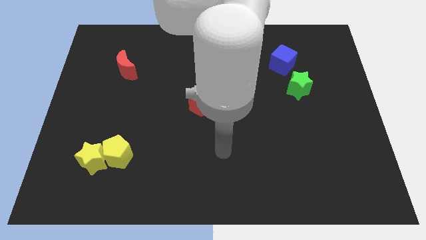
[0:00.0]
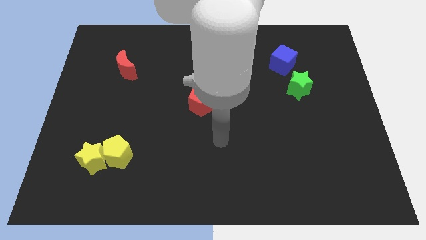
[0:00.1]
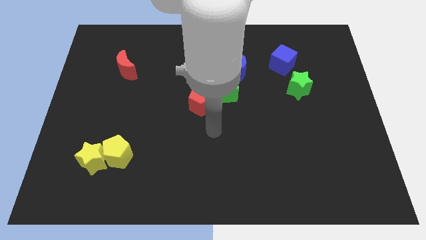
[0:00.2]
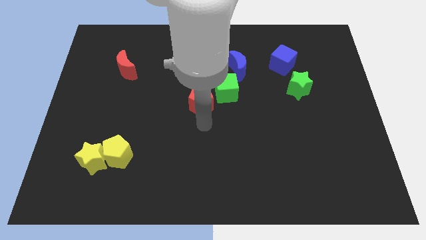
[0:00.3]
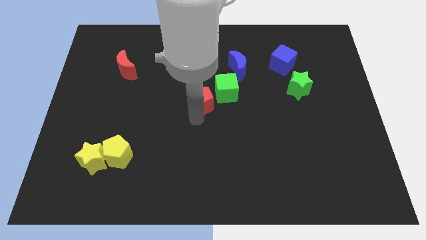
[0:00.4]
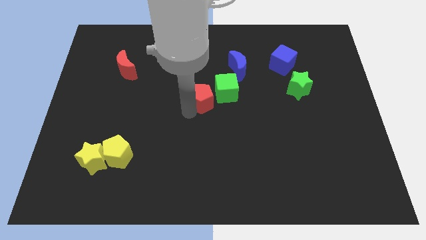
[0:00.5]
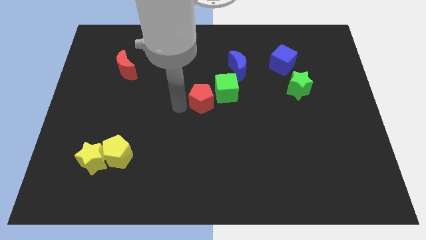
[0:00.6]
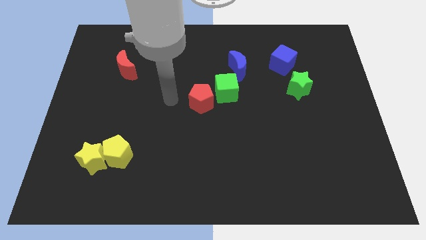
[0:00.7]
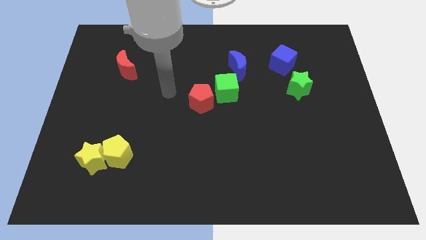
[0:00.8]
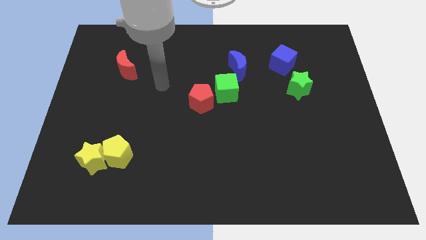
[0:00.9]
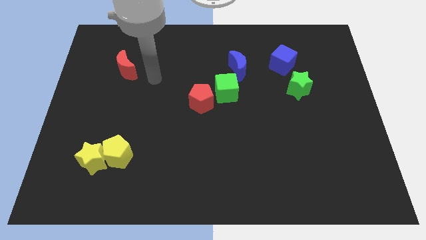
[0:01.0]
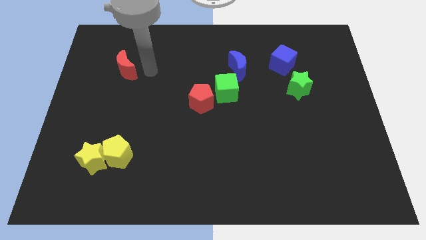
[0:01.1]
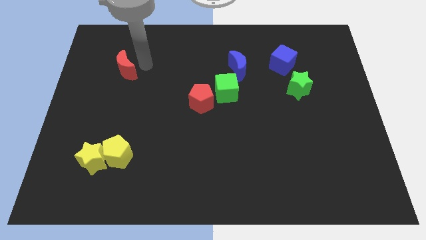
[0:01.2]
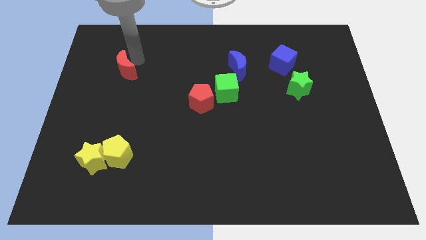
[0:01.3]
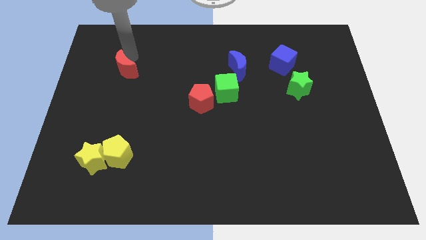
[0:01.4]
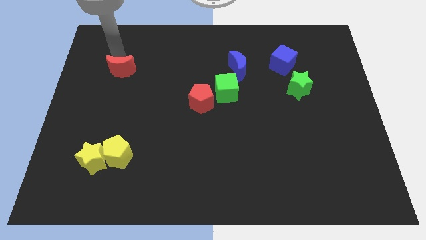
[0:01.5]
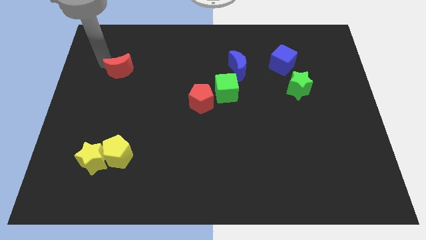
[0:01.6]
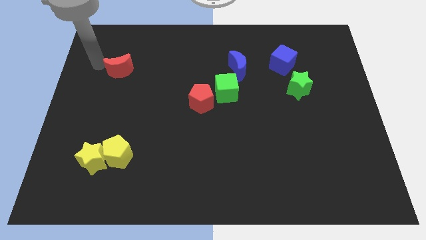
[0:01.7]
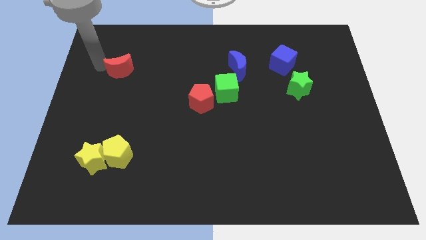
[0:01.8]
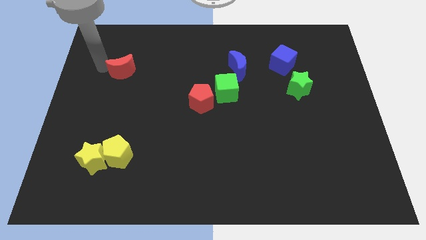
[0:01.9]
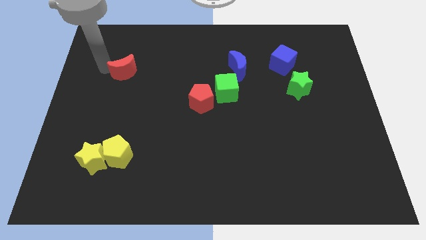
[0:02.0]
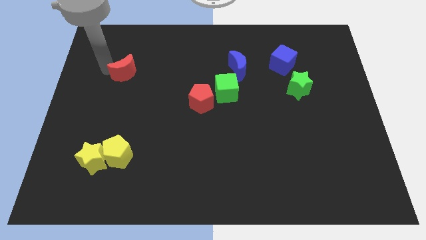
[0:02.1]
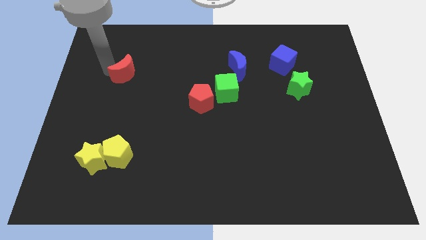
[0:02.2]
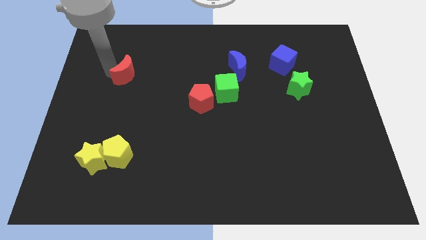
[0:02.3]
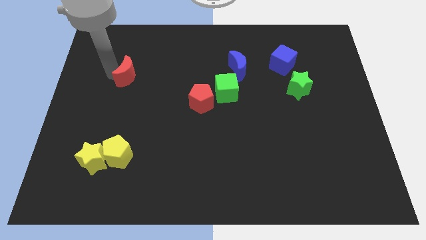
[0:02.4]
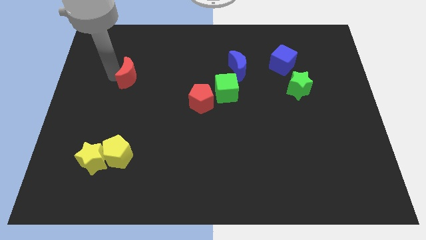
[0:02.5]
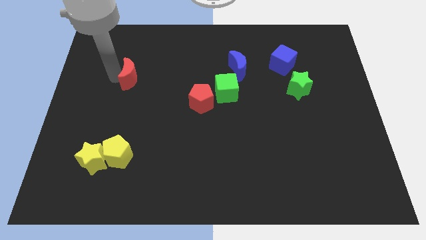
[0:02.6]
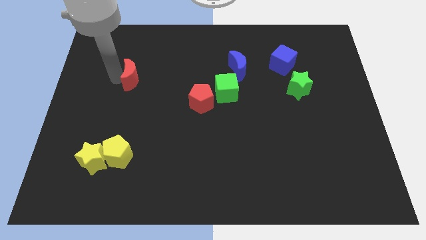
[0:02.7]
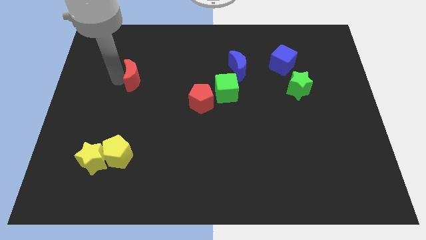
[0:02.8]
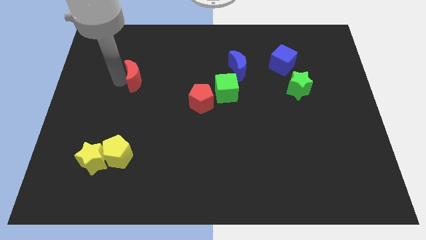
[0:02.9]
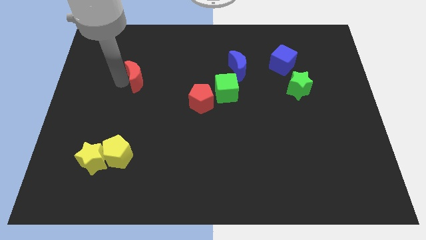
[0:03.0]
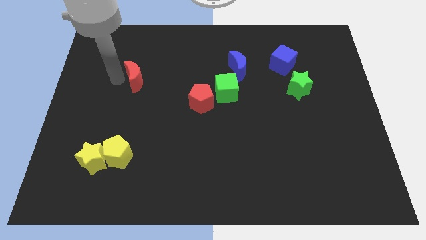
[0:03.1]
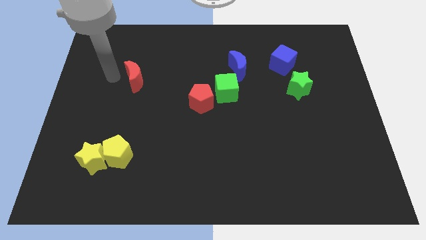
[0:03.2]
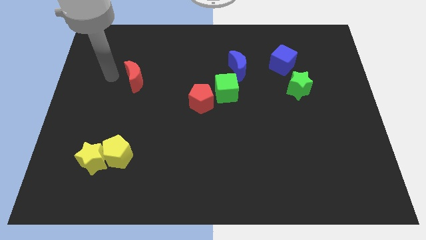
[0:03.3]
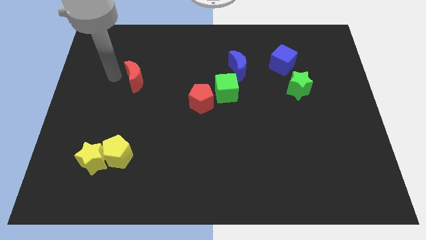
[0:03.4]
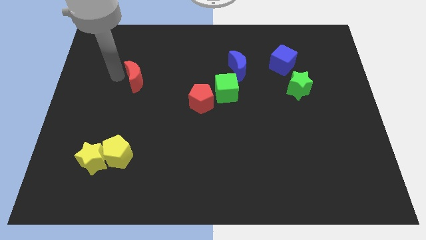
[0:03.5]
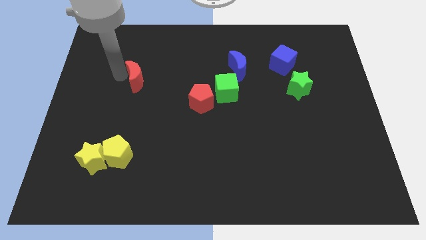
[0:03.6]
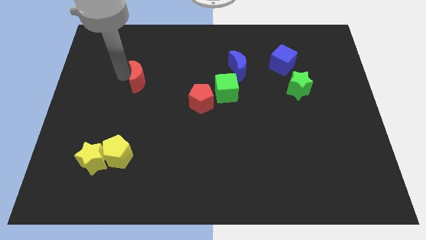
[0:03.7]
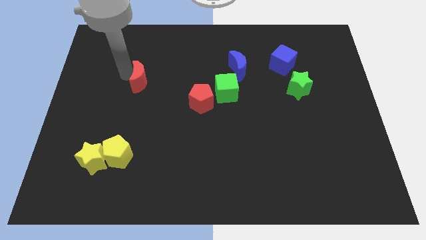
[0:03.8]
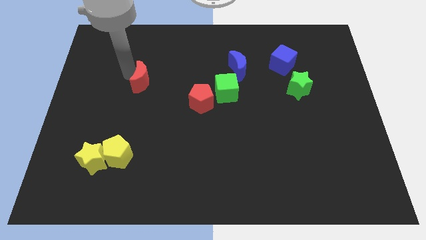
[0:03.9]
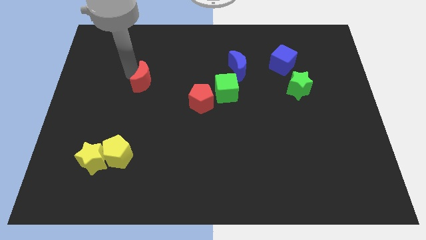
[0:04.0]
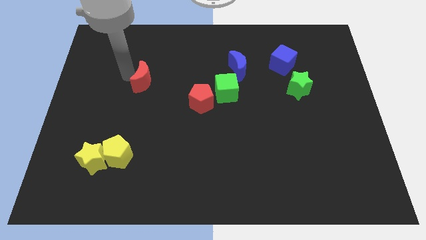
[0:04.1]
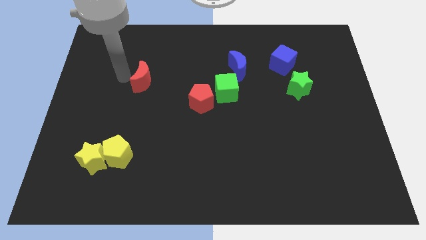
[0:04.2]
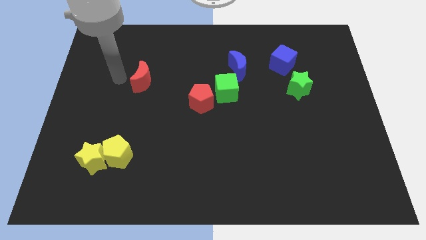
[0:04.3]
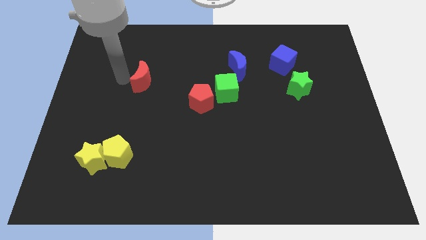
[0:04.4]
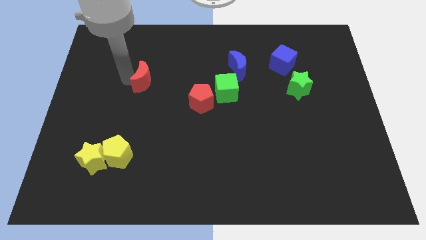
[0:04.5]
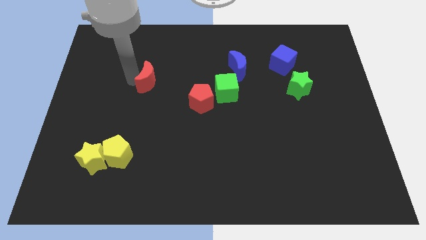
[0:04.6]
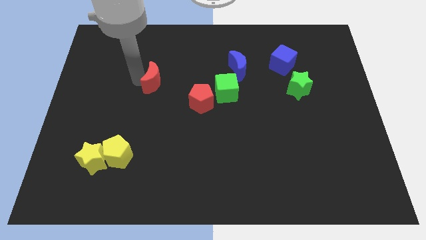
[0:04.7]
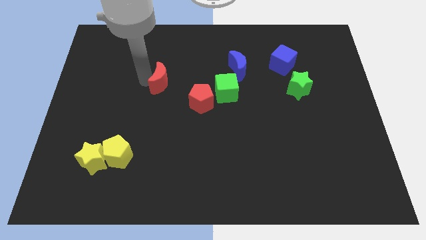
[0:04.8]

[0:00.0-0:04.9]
slide the red moon to the top left of the red pentagon

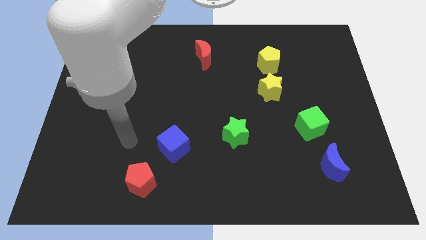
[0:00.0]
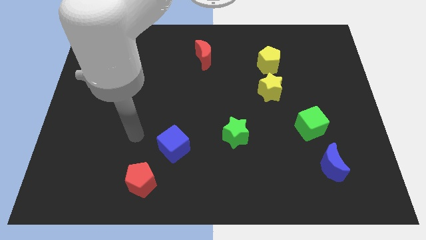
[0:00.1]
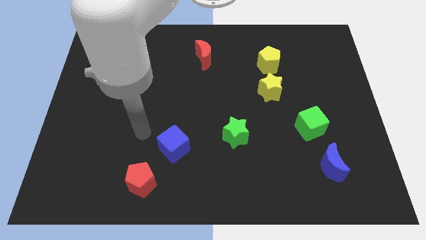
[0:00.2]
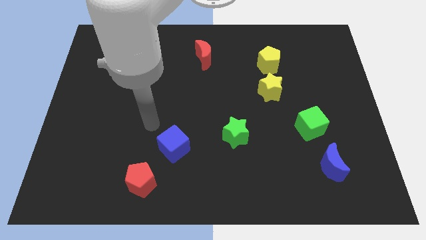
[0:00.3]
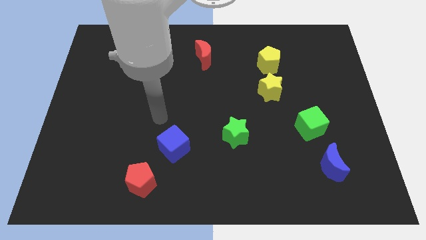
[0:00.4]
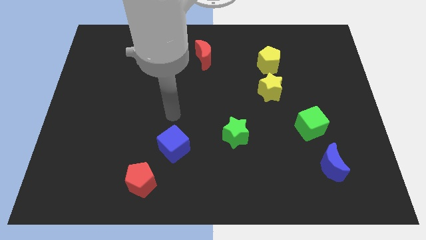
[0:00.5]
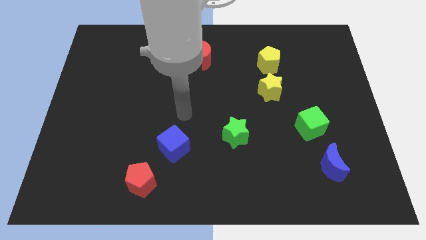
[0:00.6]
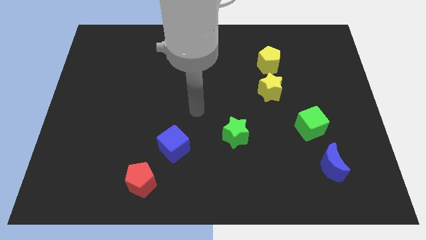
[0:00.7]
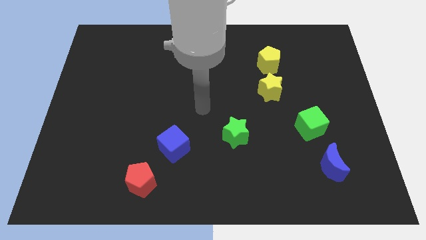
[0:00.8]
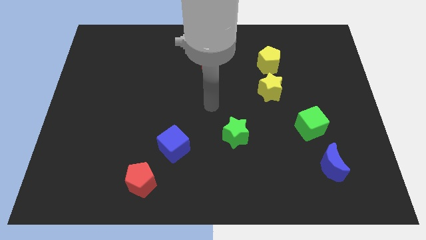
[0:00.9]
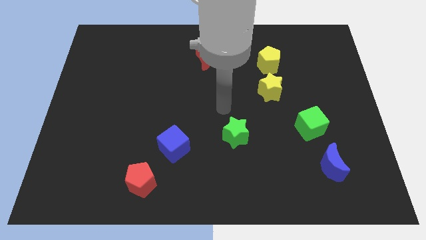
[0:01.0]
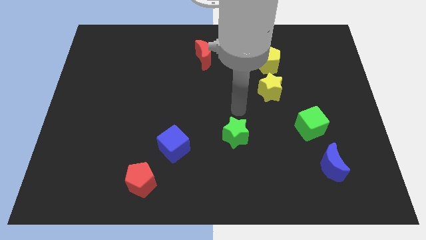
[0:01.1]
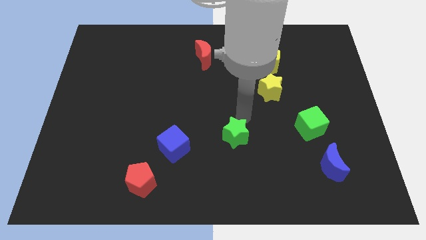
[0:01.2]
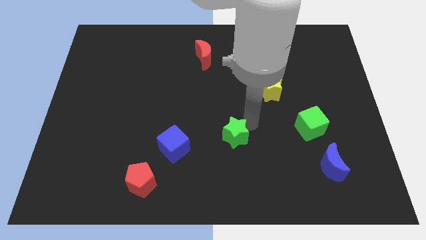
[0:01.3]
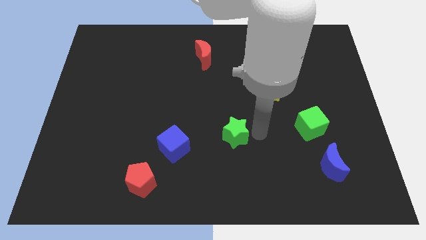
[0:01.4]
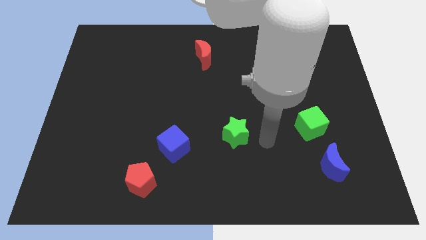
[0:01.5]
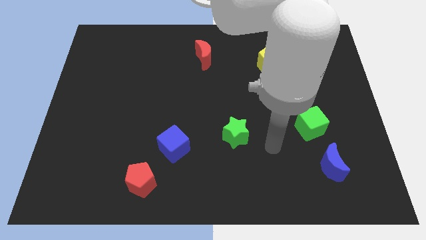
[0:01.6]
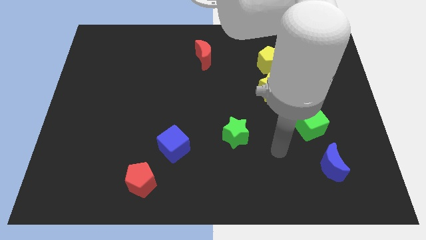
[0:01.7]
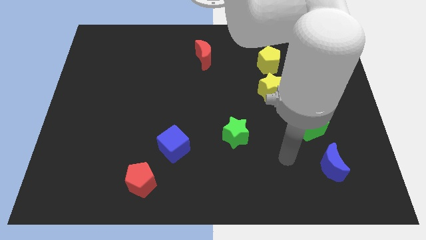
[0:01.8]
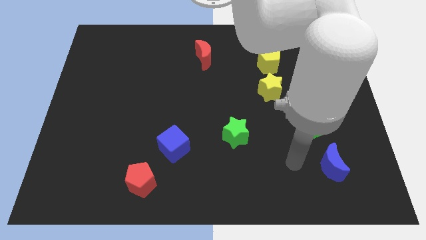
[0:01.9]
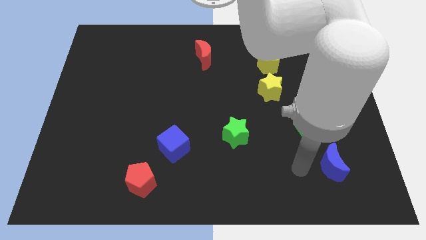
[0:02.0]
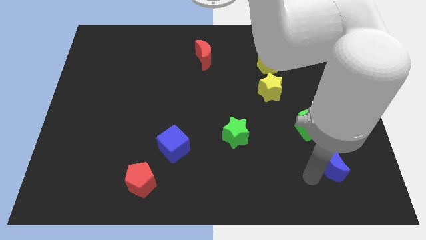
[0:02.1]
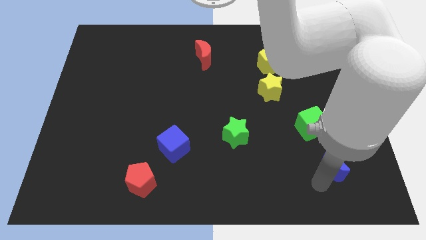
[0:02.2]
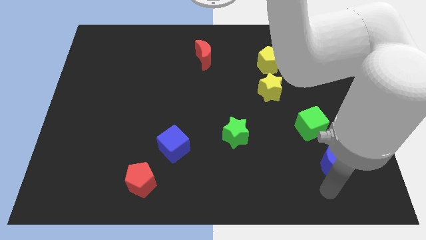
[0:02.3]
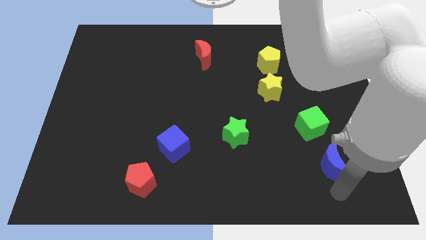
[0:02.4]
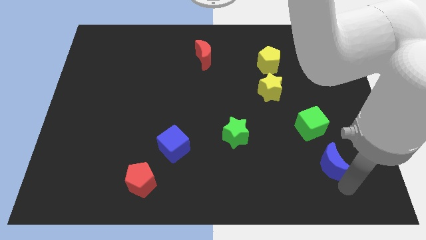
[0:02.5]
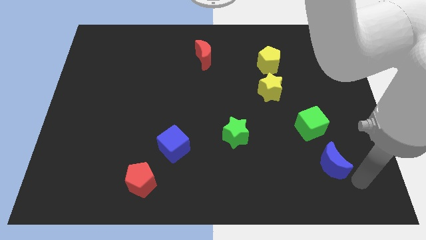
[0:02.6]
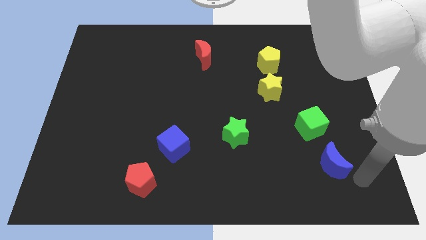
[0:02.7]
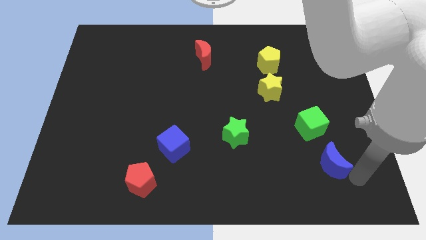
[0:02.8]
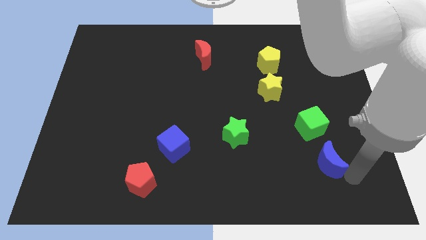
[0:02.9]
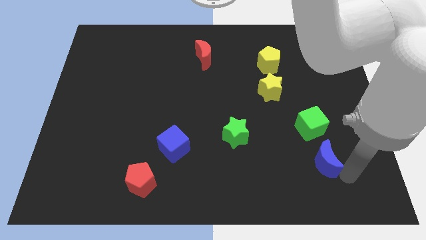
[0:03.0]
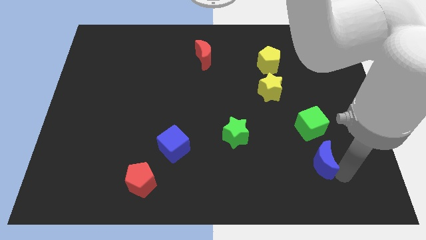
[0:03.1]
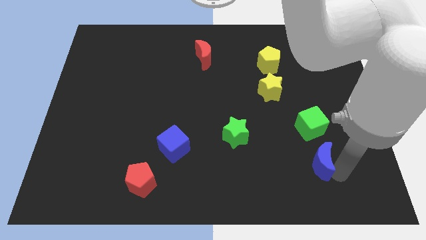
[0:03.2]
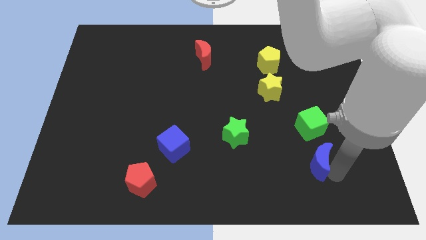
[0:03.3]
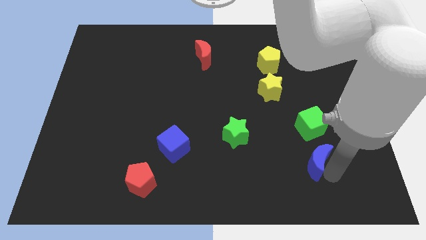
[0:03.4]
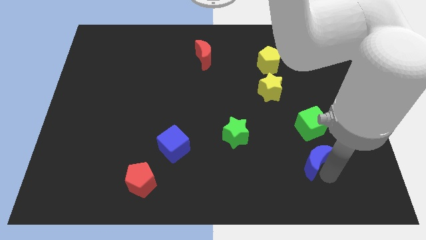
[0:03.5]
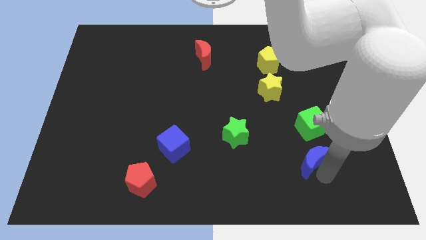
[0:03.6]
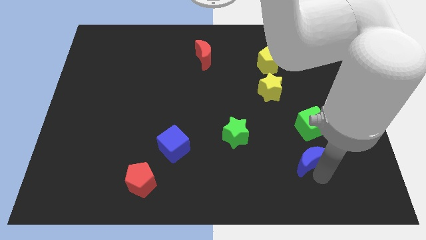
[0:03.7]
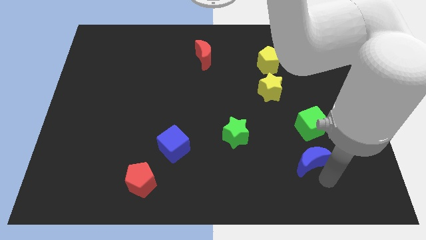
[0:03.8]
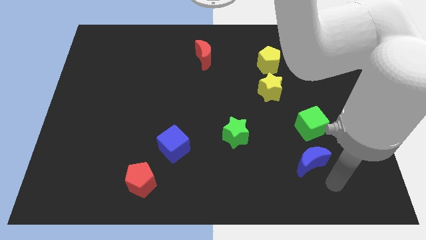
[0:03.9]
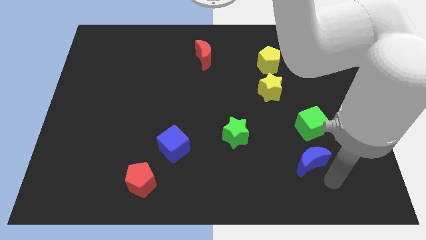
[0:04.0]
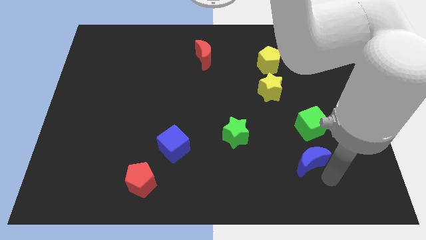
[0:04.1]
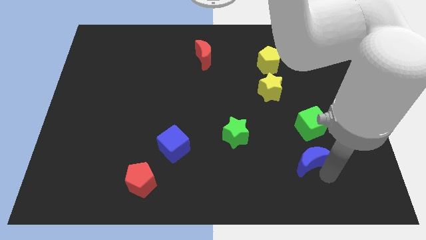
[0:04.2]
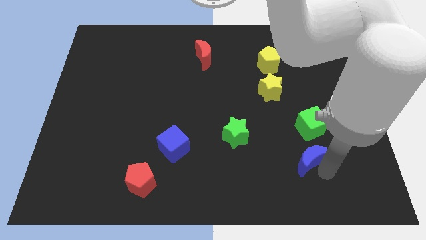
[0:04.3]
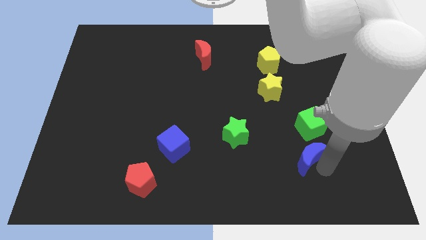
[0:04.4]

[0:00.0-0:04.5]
slide the blue moon to the bottom left of the green cube
